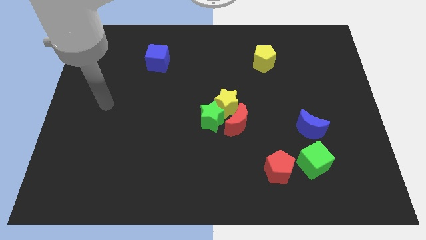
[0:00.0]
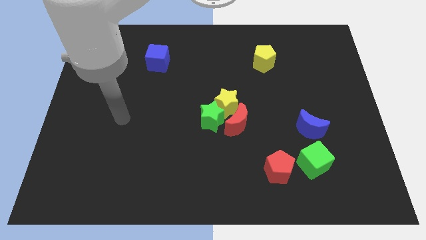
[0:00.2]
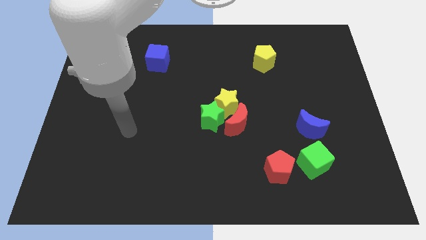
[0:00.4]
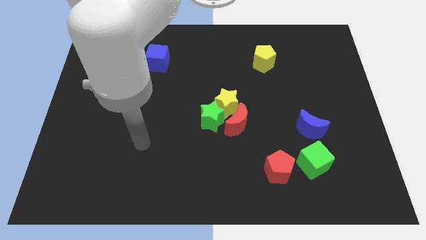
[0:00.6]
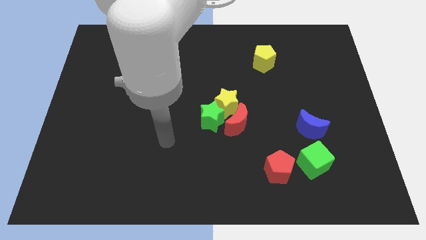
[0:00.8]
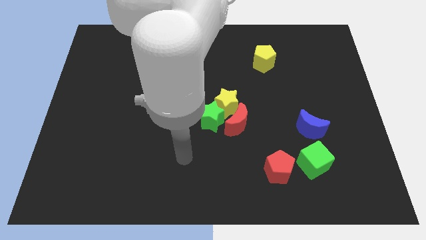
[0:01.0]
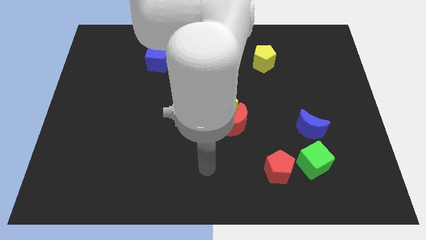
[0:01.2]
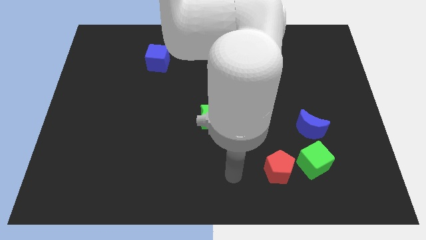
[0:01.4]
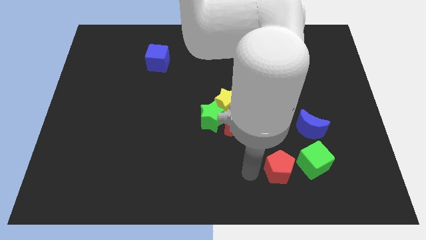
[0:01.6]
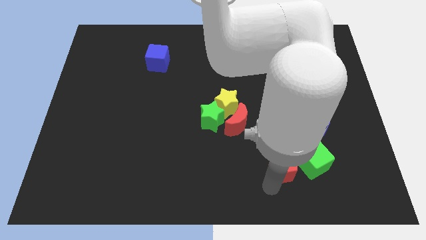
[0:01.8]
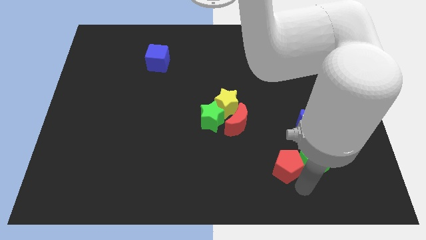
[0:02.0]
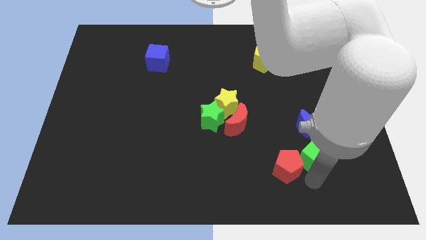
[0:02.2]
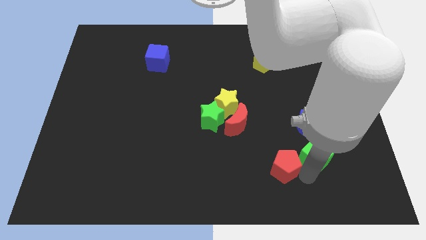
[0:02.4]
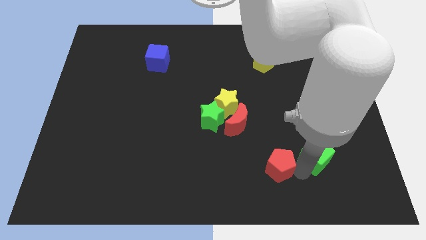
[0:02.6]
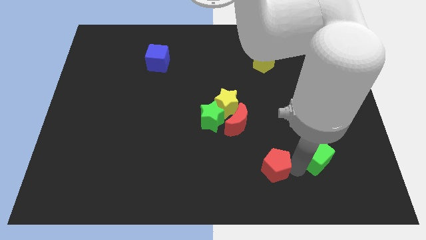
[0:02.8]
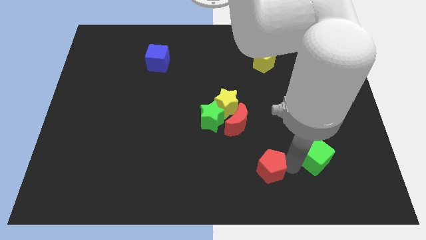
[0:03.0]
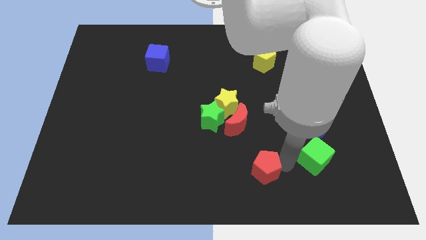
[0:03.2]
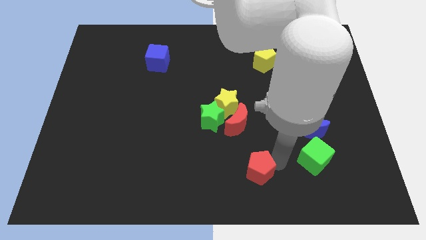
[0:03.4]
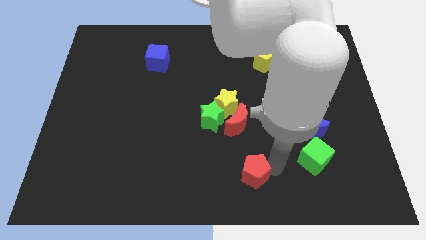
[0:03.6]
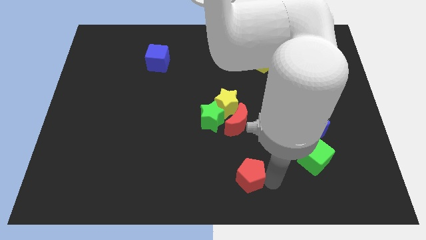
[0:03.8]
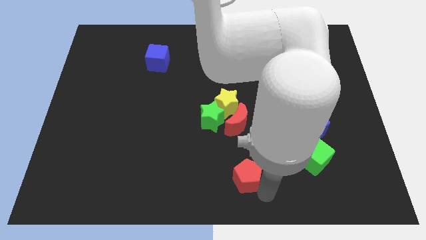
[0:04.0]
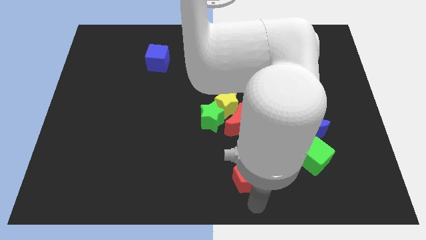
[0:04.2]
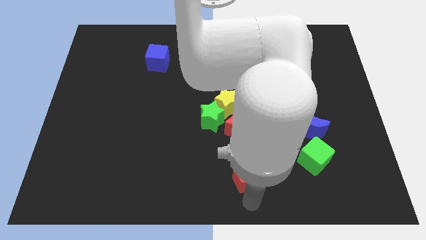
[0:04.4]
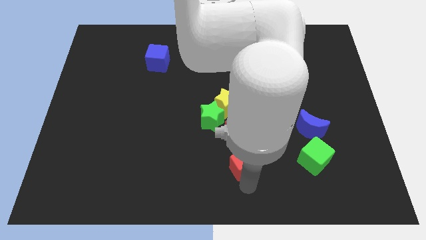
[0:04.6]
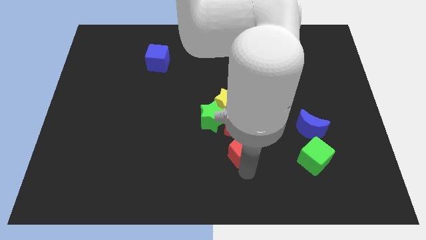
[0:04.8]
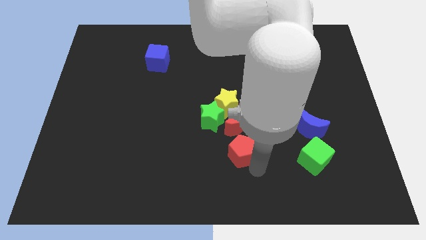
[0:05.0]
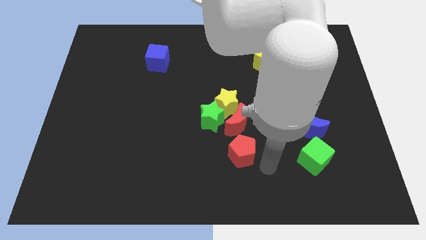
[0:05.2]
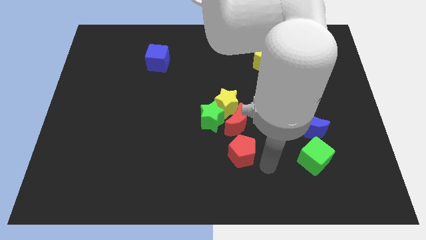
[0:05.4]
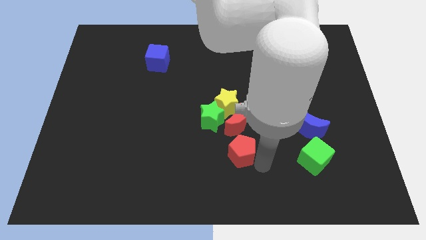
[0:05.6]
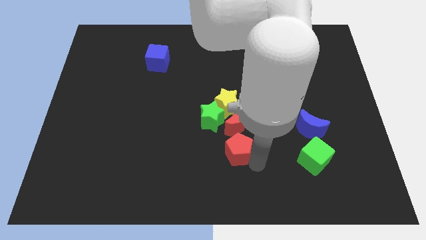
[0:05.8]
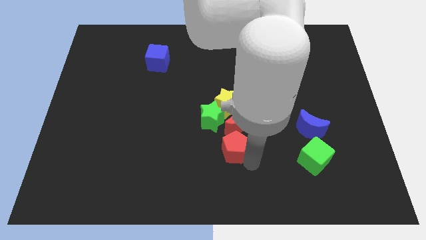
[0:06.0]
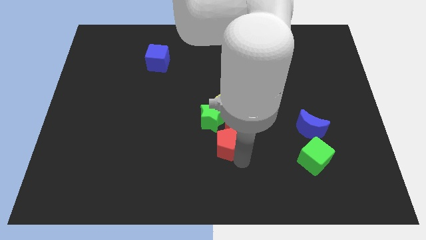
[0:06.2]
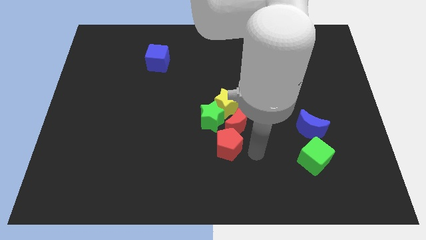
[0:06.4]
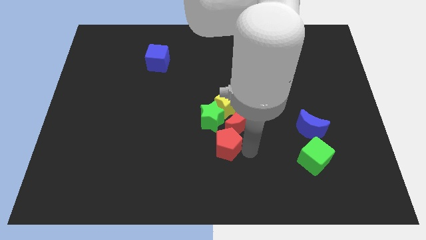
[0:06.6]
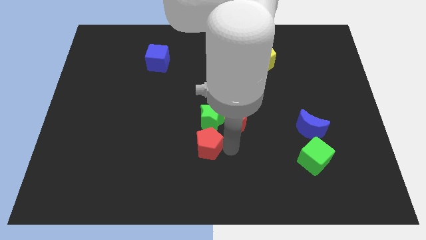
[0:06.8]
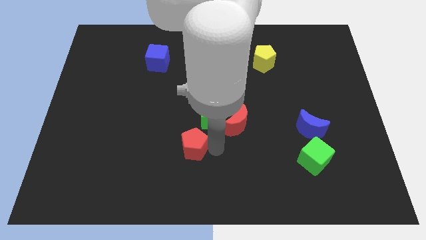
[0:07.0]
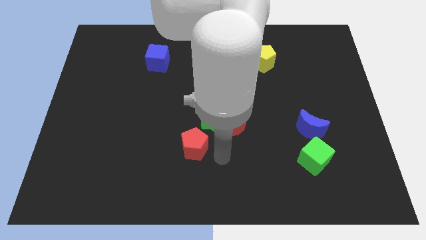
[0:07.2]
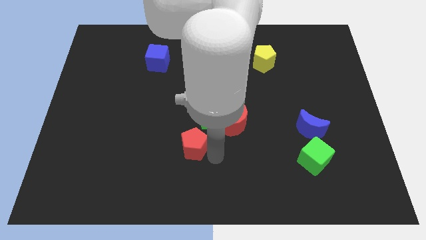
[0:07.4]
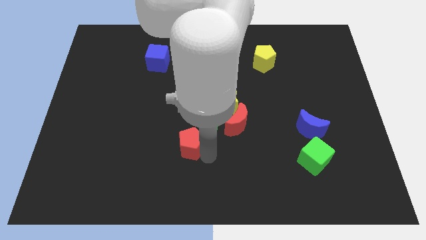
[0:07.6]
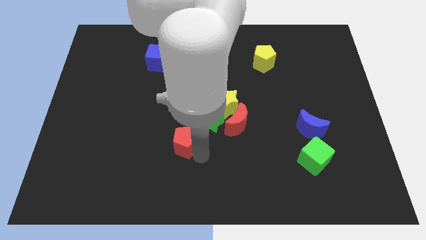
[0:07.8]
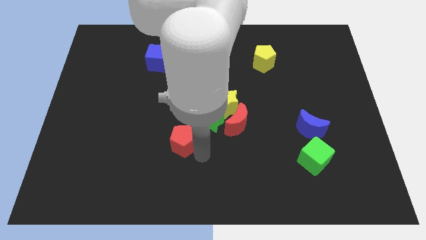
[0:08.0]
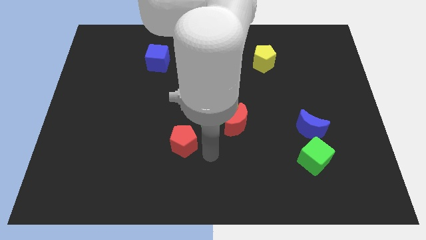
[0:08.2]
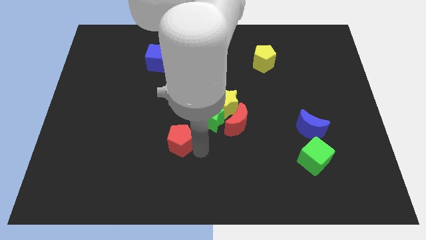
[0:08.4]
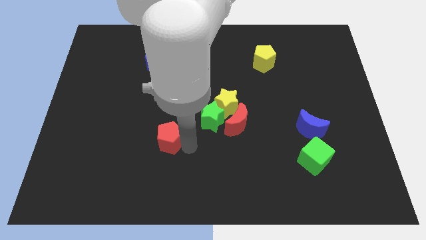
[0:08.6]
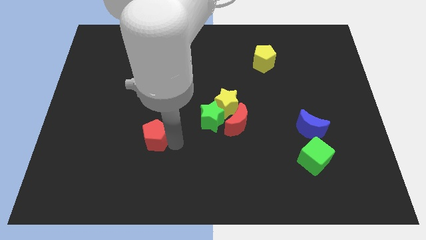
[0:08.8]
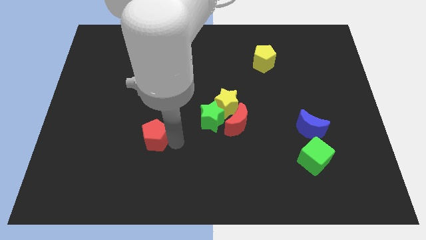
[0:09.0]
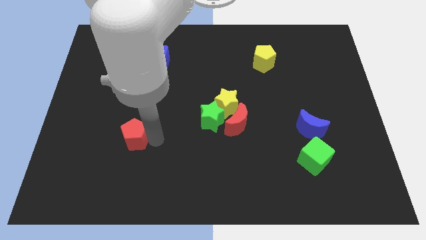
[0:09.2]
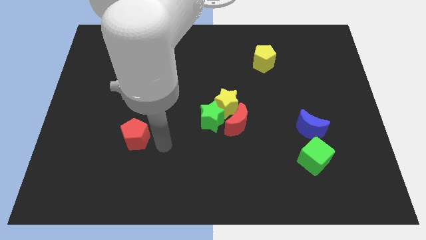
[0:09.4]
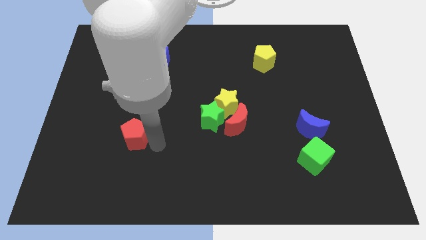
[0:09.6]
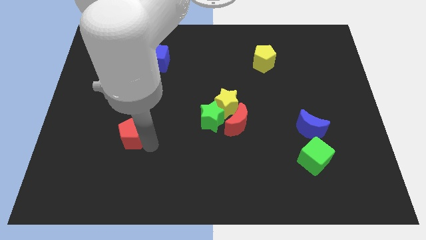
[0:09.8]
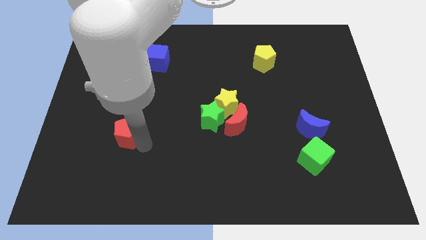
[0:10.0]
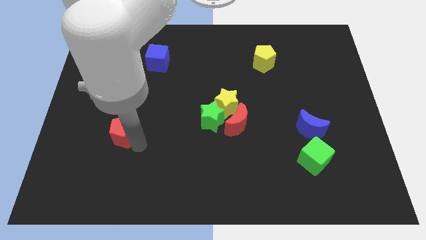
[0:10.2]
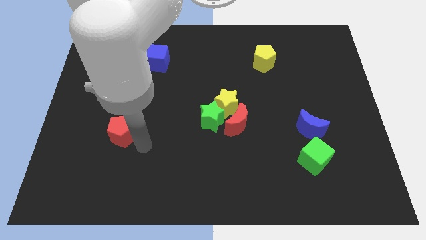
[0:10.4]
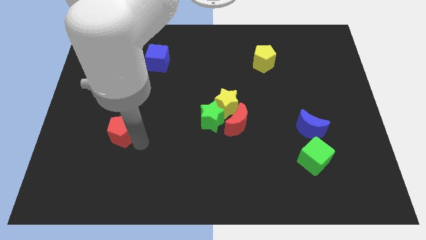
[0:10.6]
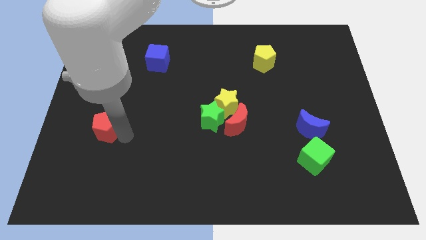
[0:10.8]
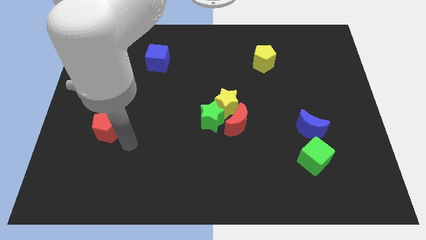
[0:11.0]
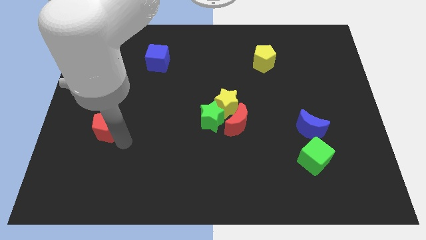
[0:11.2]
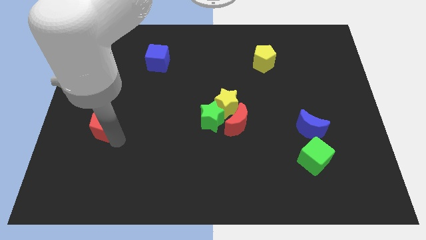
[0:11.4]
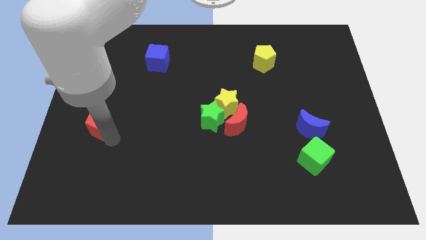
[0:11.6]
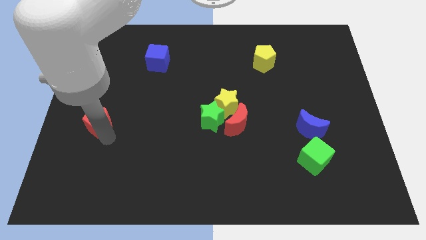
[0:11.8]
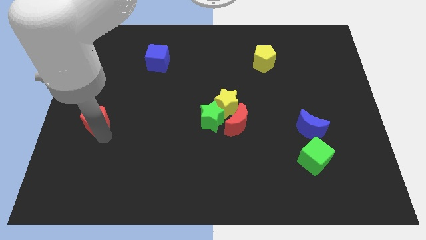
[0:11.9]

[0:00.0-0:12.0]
put the red pentagon to the left side

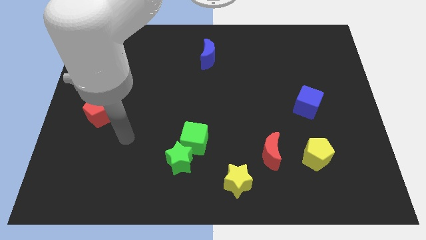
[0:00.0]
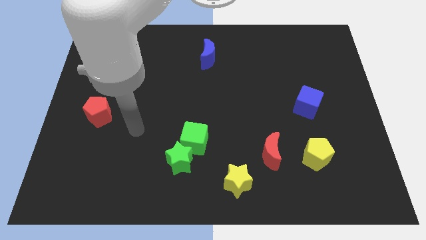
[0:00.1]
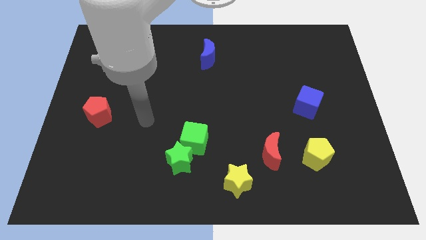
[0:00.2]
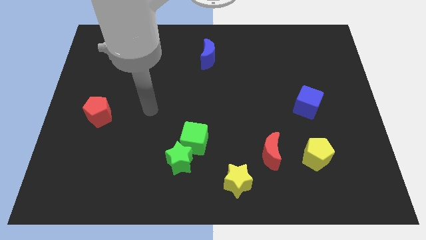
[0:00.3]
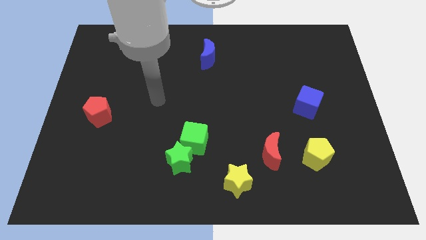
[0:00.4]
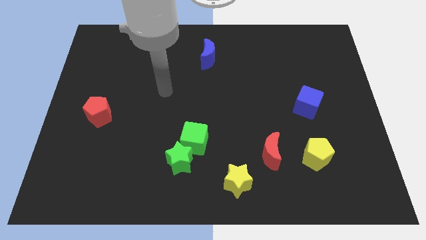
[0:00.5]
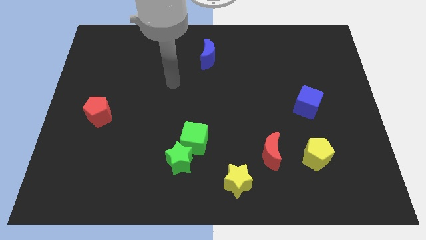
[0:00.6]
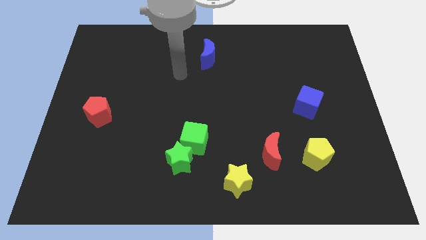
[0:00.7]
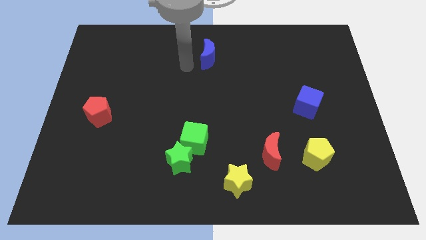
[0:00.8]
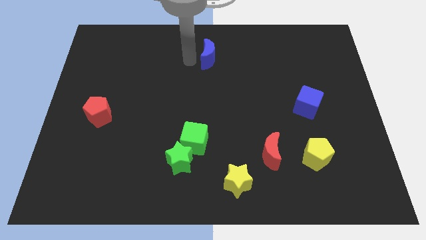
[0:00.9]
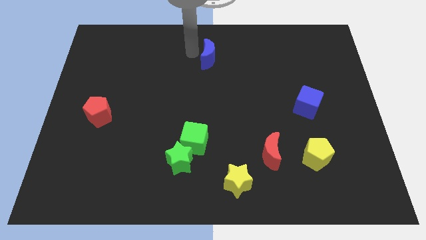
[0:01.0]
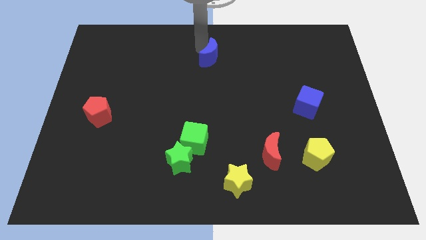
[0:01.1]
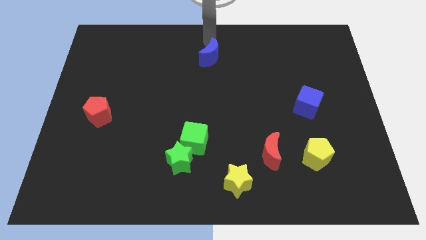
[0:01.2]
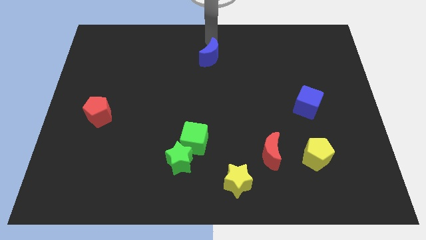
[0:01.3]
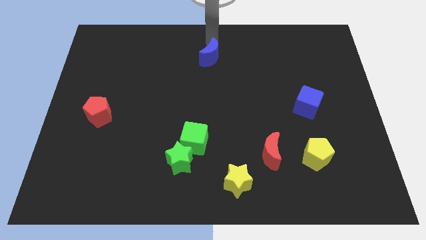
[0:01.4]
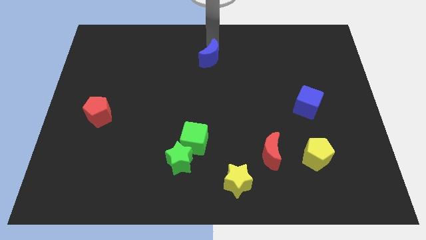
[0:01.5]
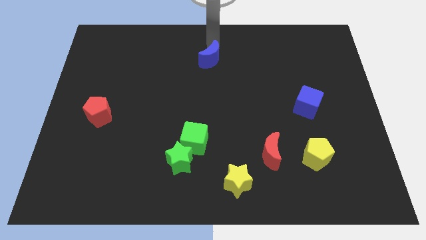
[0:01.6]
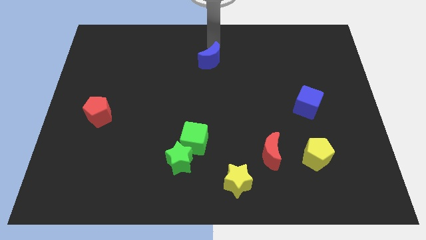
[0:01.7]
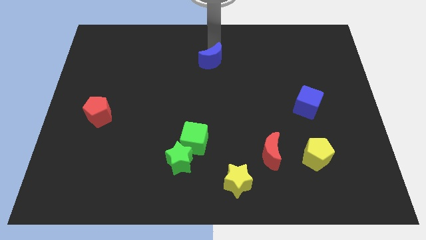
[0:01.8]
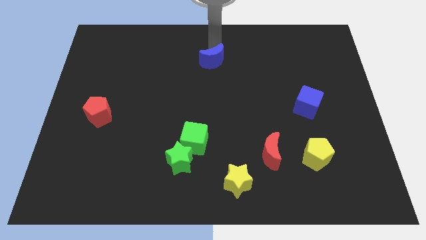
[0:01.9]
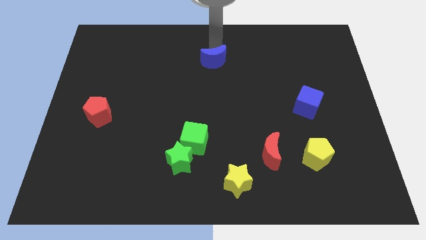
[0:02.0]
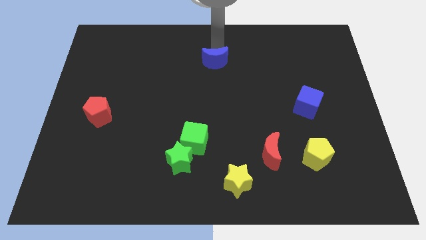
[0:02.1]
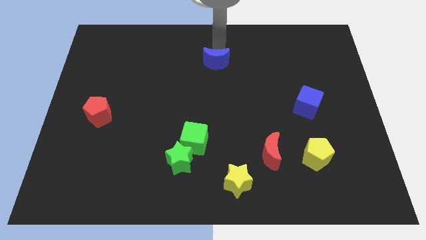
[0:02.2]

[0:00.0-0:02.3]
put the blue moon to the middle

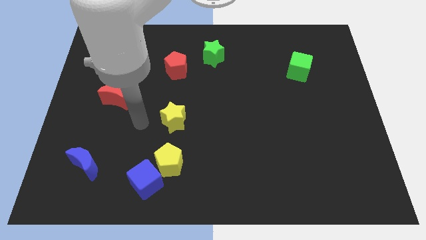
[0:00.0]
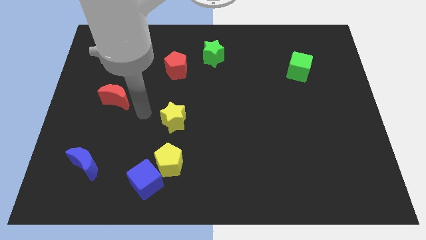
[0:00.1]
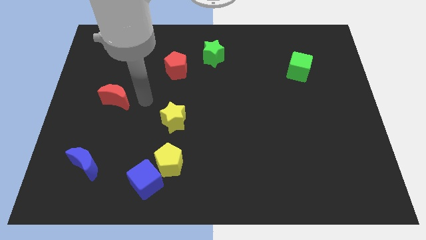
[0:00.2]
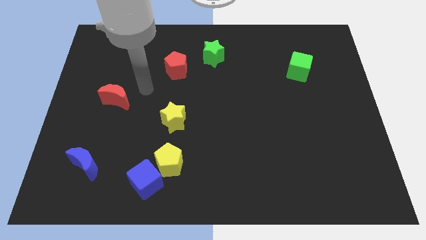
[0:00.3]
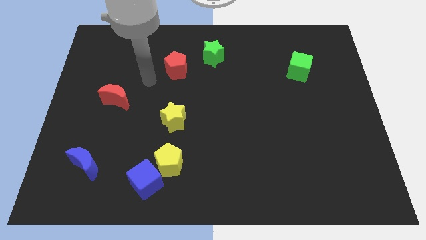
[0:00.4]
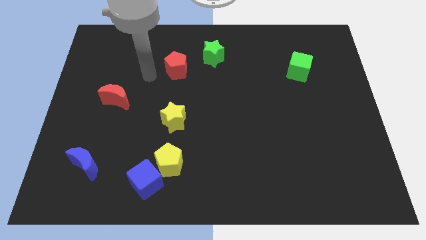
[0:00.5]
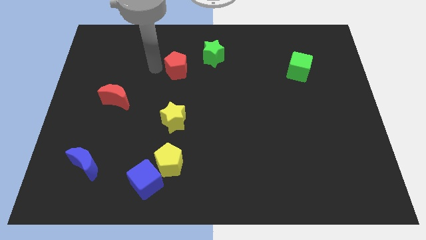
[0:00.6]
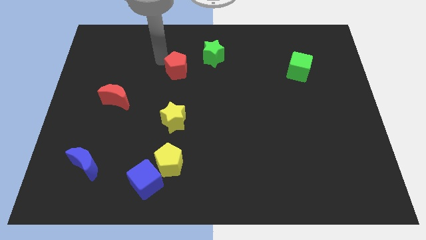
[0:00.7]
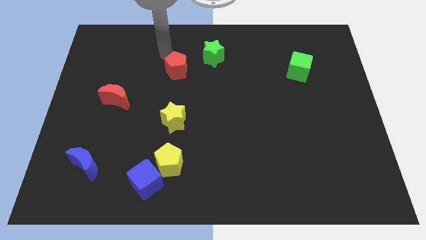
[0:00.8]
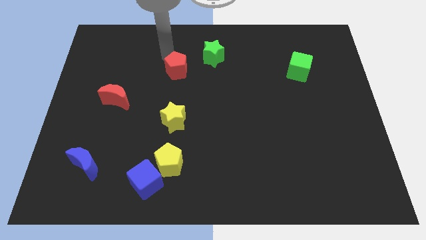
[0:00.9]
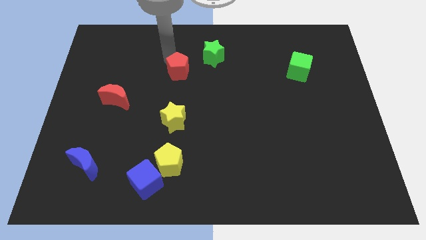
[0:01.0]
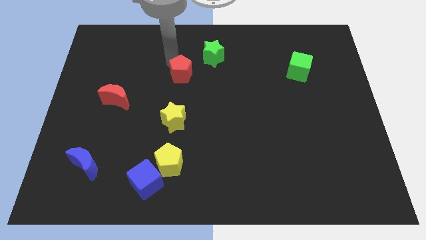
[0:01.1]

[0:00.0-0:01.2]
put the red pentagon to the center
